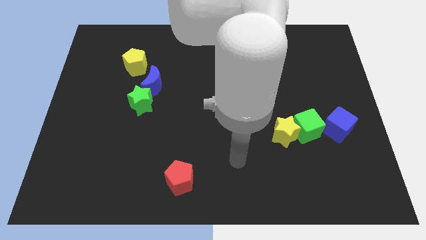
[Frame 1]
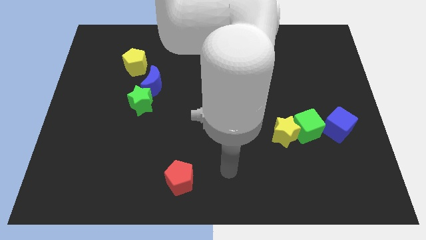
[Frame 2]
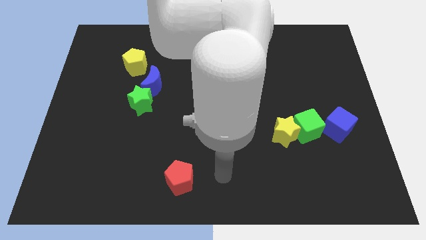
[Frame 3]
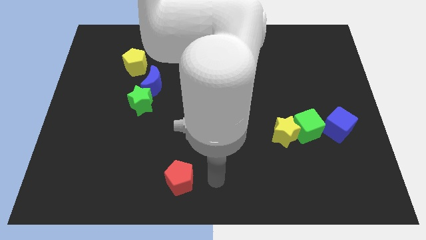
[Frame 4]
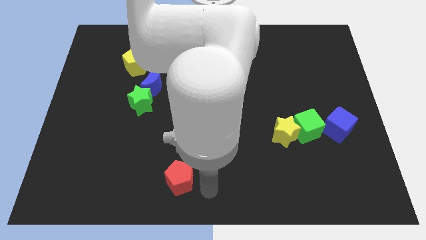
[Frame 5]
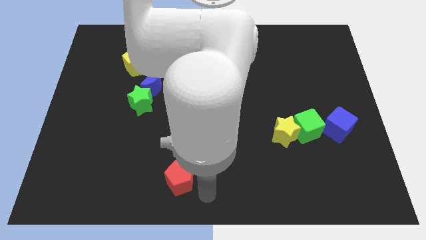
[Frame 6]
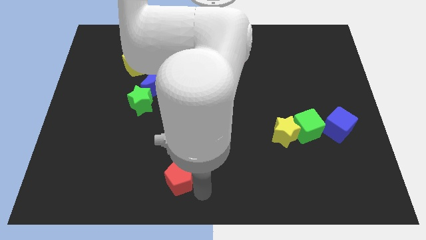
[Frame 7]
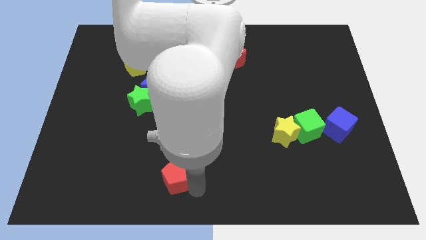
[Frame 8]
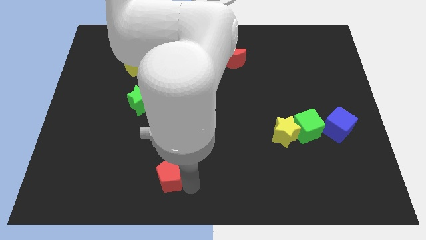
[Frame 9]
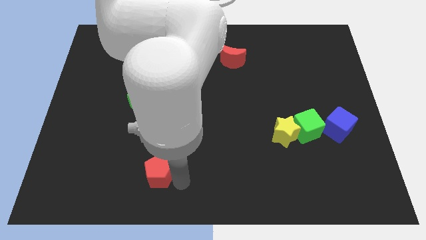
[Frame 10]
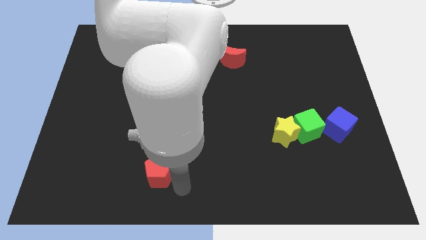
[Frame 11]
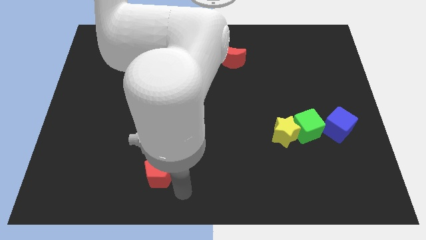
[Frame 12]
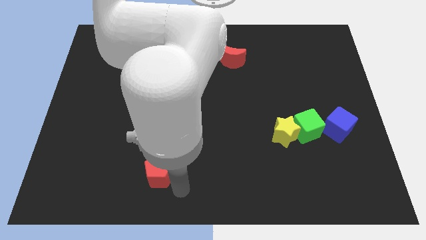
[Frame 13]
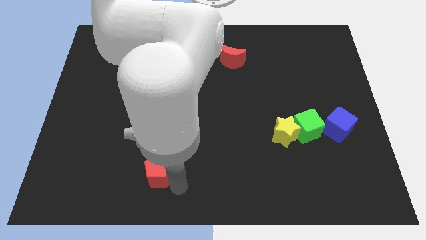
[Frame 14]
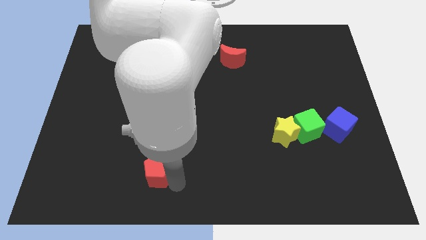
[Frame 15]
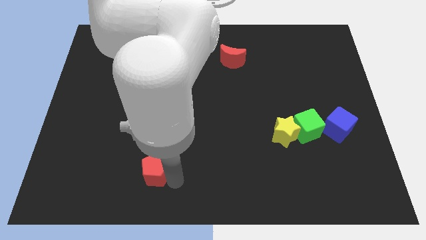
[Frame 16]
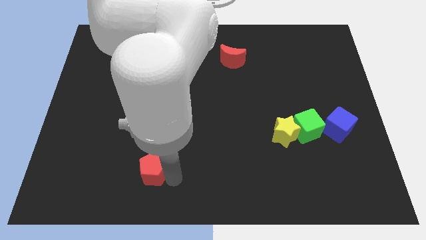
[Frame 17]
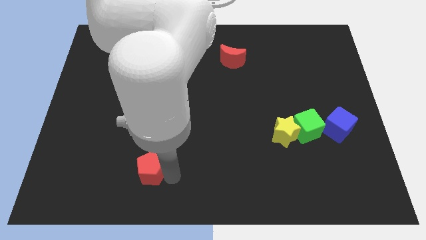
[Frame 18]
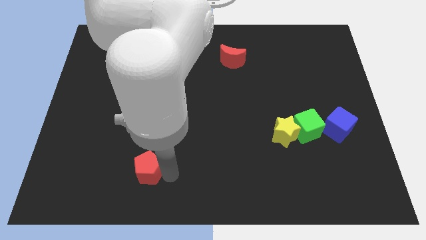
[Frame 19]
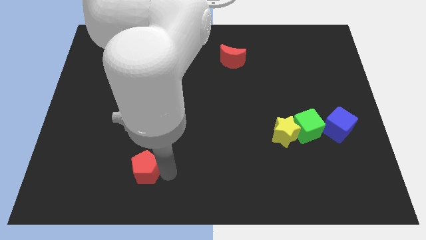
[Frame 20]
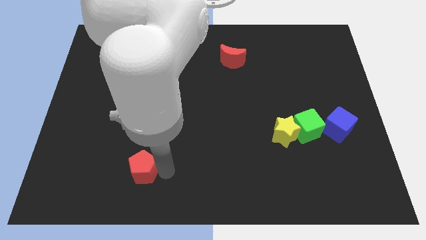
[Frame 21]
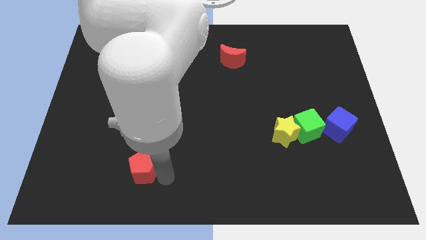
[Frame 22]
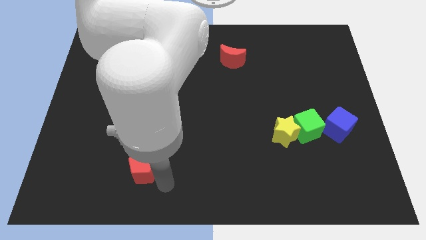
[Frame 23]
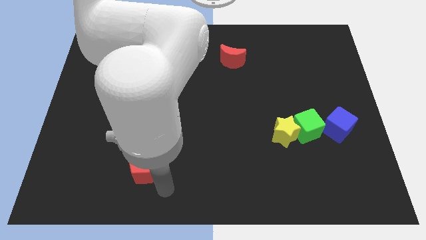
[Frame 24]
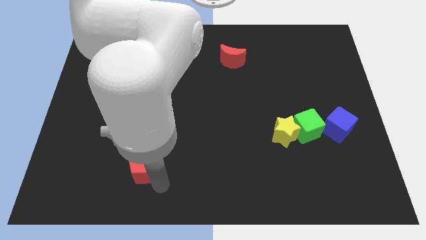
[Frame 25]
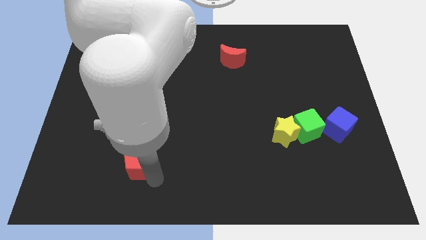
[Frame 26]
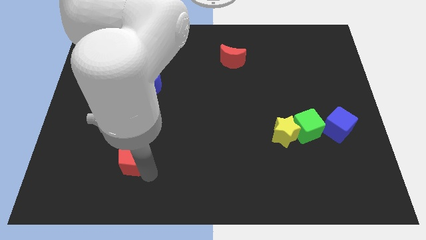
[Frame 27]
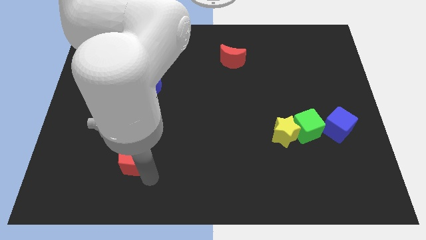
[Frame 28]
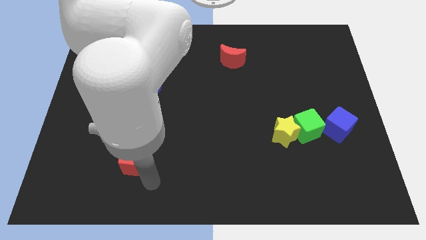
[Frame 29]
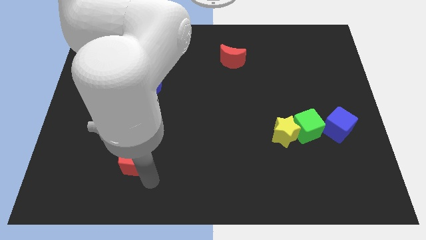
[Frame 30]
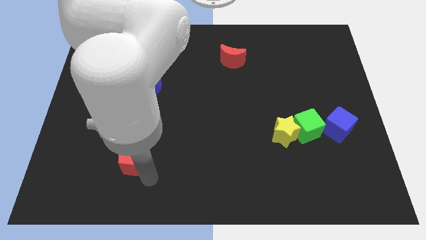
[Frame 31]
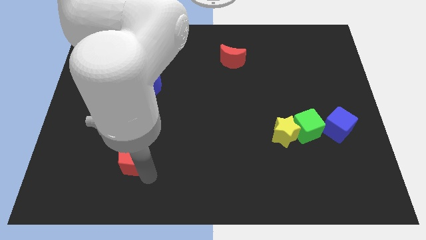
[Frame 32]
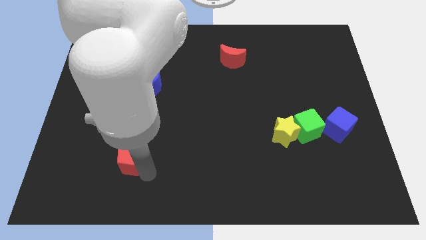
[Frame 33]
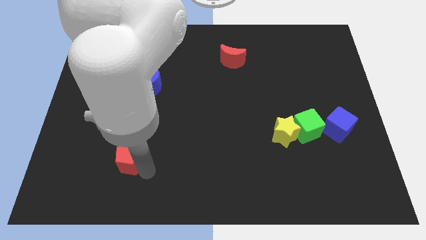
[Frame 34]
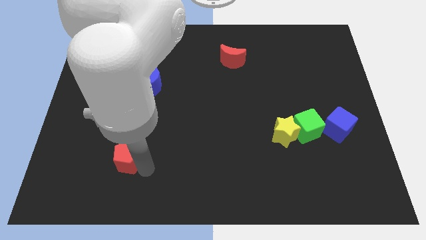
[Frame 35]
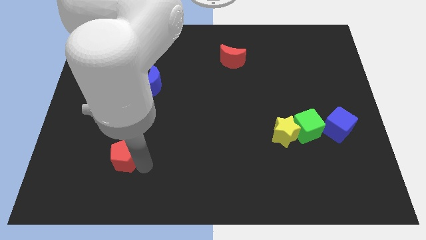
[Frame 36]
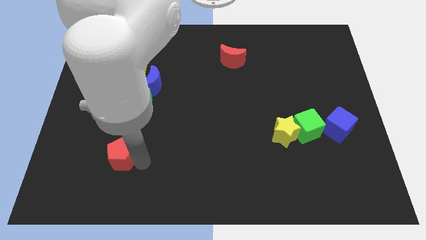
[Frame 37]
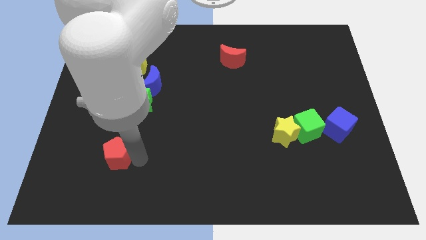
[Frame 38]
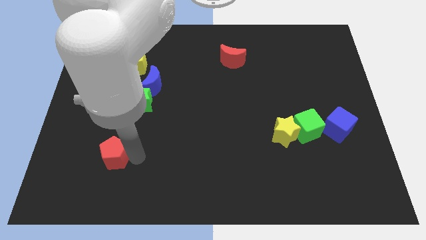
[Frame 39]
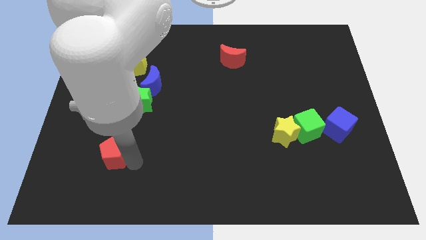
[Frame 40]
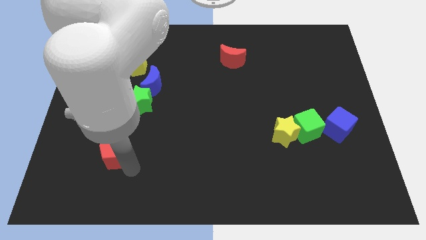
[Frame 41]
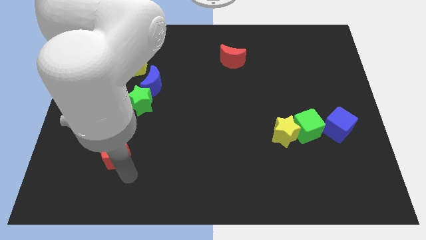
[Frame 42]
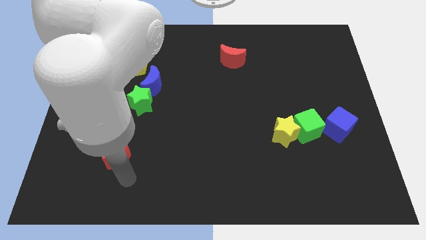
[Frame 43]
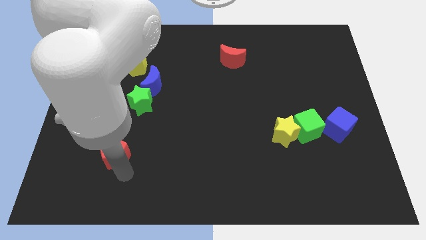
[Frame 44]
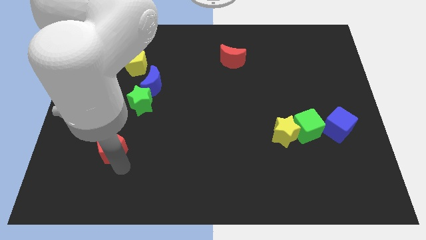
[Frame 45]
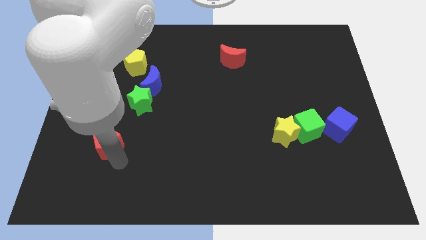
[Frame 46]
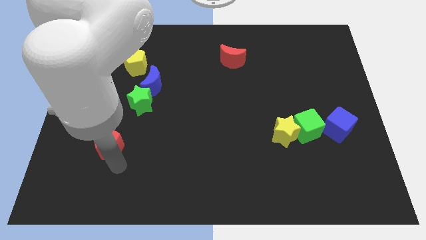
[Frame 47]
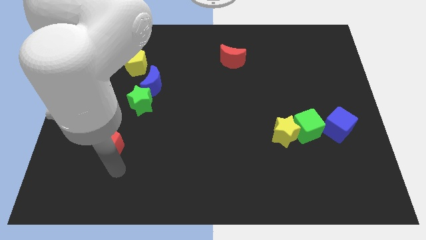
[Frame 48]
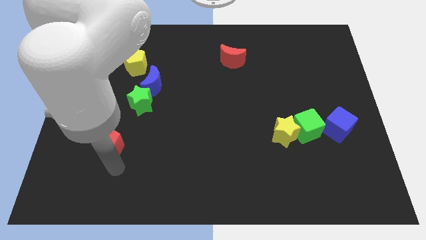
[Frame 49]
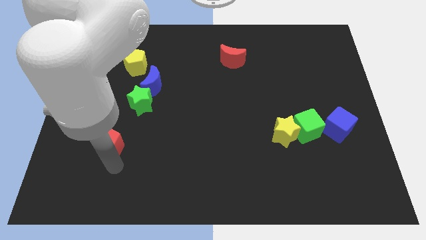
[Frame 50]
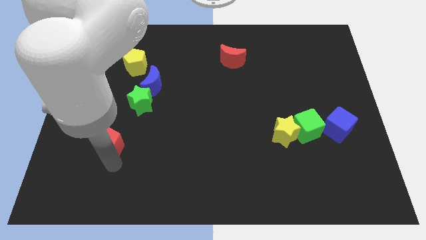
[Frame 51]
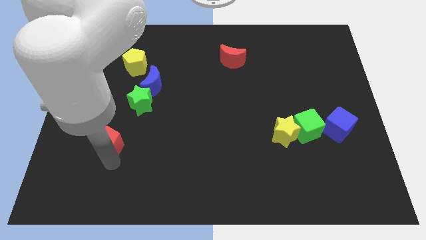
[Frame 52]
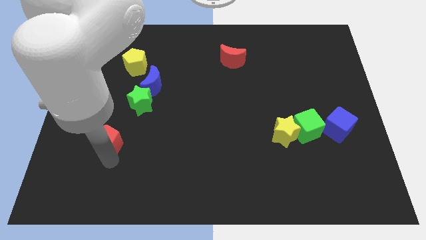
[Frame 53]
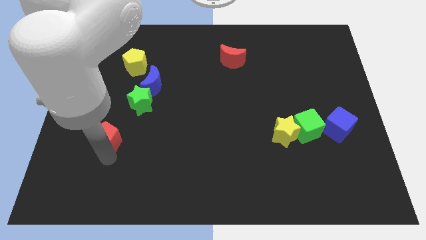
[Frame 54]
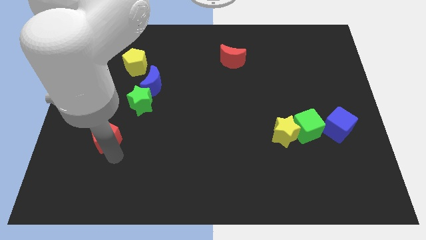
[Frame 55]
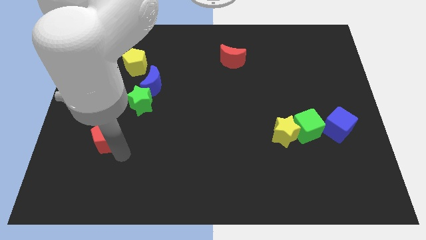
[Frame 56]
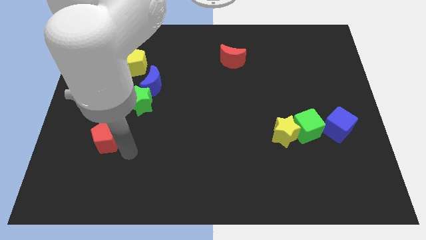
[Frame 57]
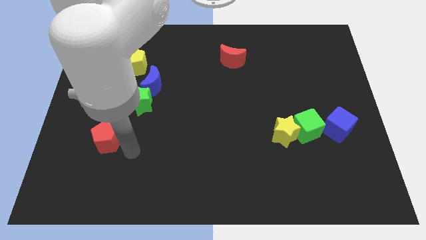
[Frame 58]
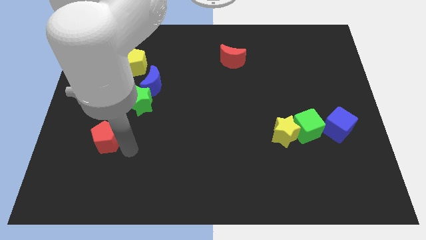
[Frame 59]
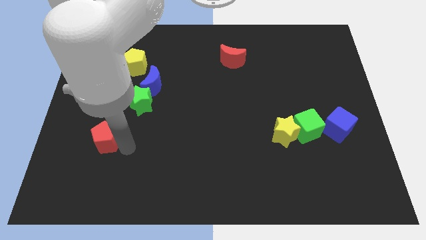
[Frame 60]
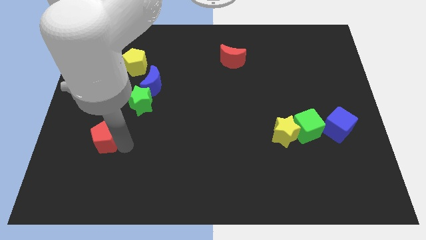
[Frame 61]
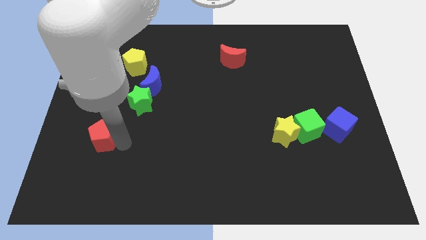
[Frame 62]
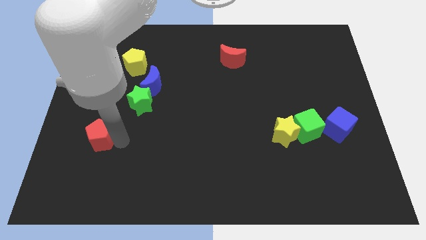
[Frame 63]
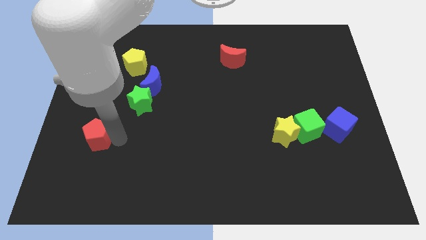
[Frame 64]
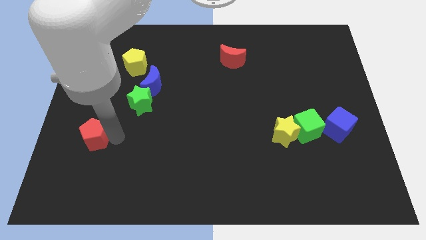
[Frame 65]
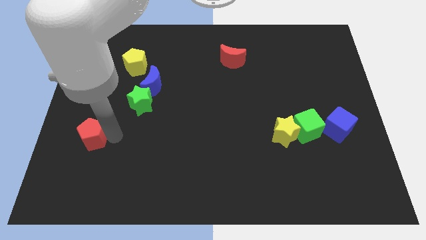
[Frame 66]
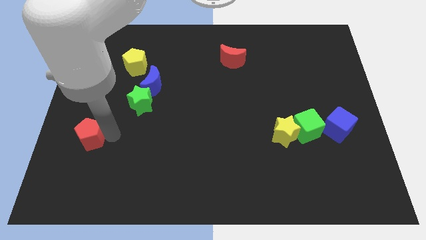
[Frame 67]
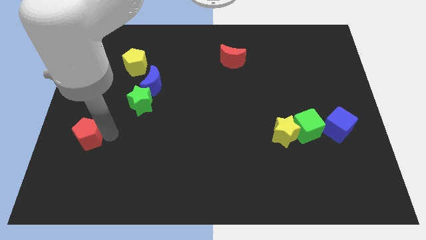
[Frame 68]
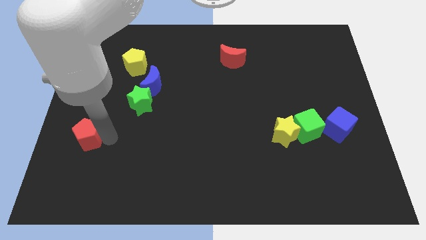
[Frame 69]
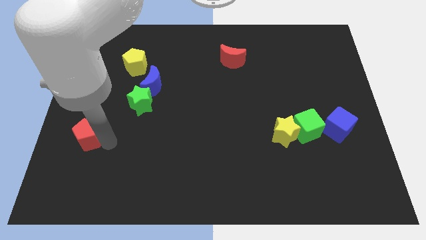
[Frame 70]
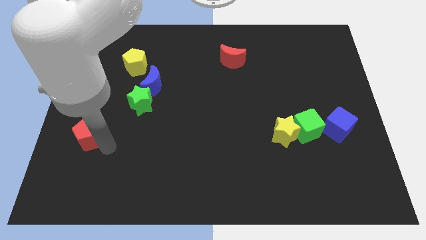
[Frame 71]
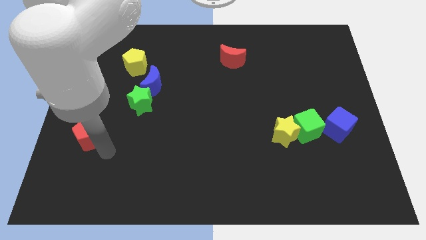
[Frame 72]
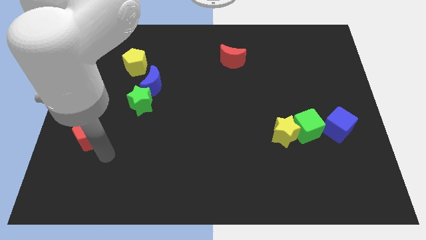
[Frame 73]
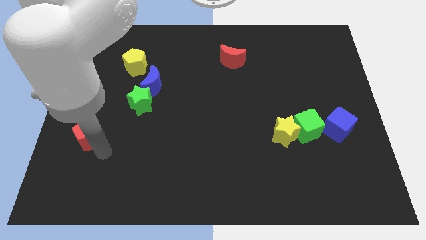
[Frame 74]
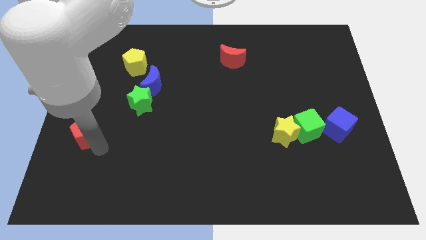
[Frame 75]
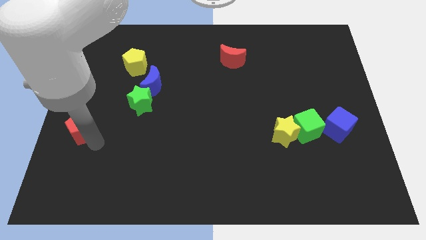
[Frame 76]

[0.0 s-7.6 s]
move the red pentagon to the center left
